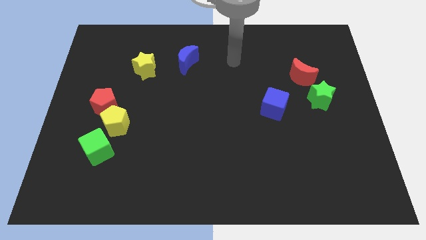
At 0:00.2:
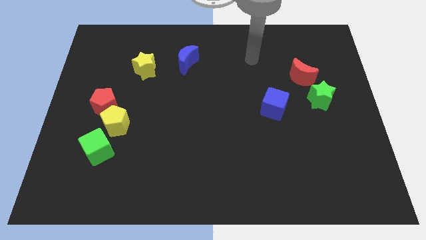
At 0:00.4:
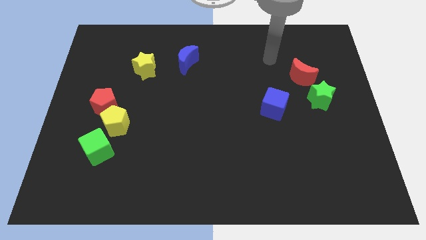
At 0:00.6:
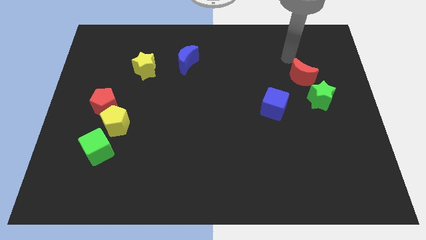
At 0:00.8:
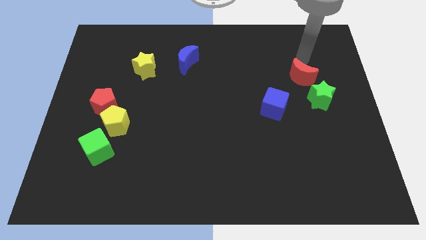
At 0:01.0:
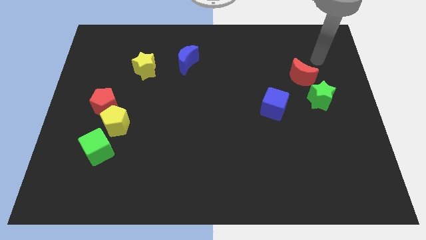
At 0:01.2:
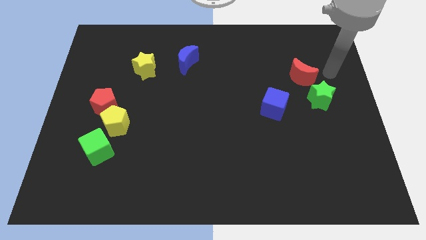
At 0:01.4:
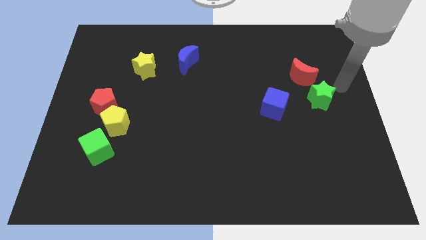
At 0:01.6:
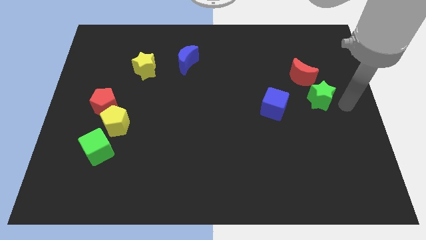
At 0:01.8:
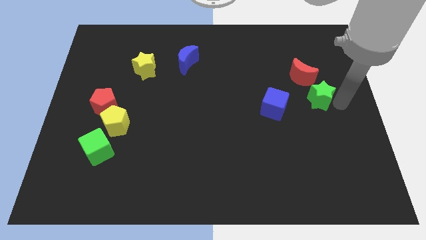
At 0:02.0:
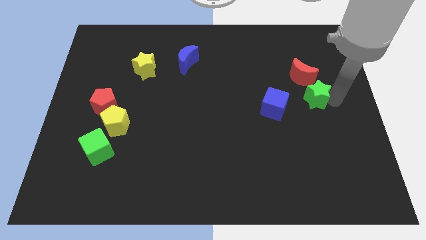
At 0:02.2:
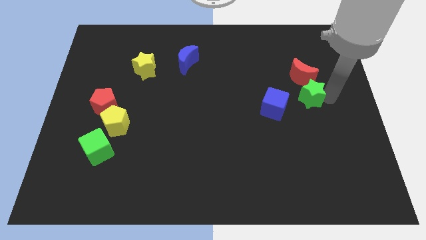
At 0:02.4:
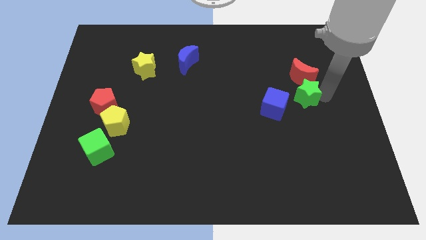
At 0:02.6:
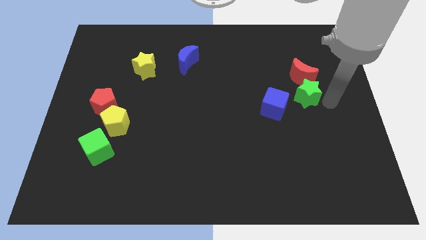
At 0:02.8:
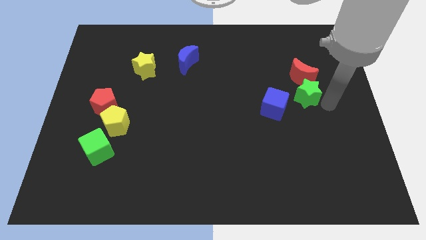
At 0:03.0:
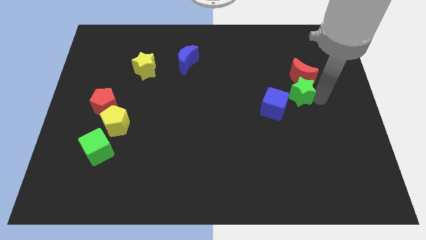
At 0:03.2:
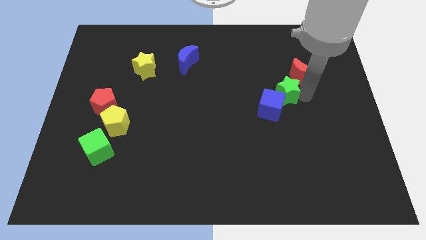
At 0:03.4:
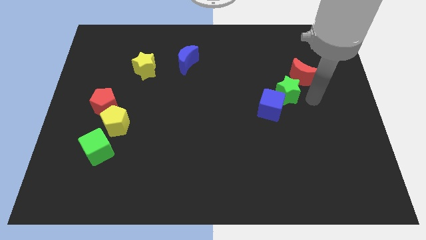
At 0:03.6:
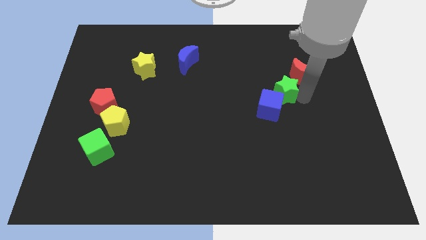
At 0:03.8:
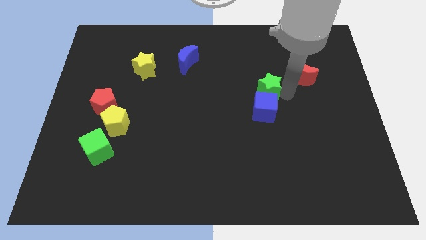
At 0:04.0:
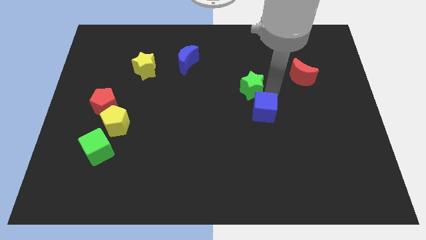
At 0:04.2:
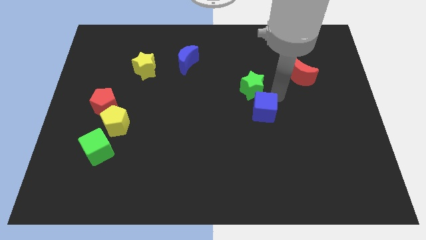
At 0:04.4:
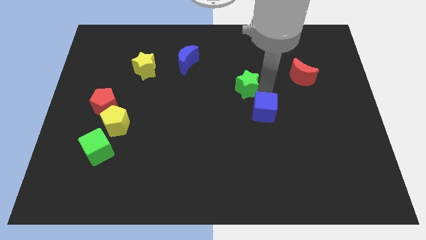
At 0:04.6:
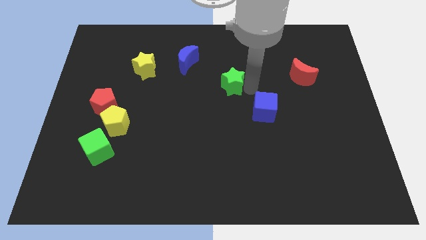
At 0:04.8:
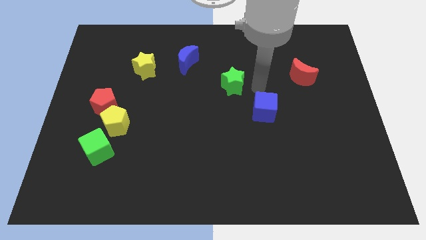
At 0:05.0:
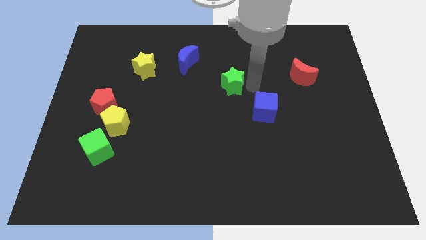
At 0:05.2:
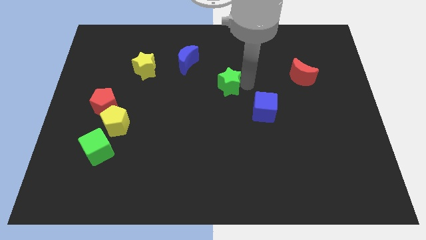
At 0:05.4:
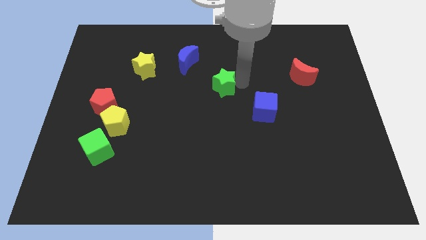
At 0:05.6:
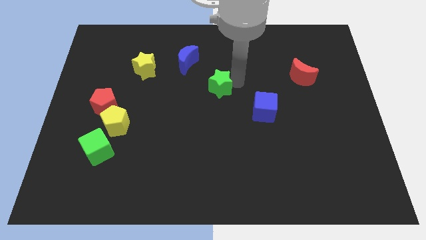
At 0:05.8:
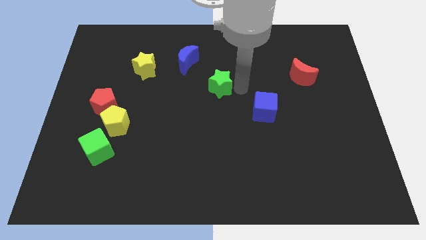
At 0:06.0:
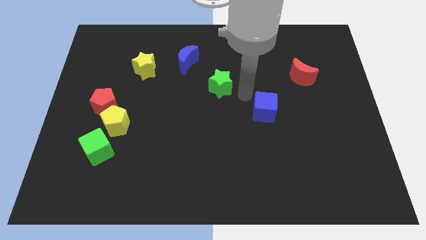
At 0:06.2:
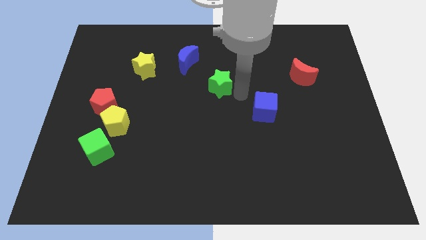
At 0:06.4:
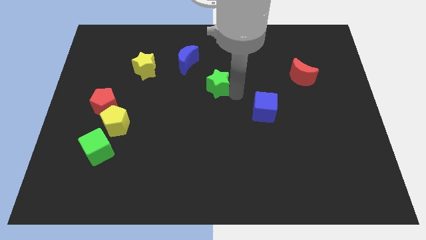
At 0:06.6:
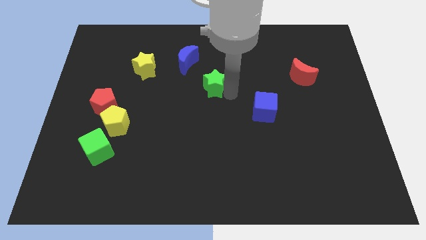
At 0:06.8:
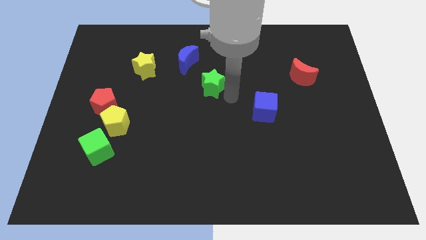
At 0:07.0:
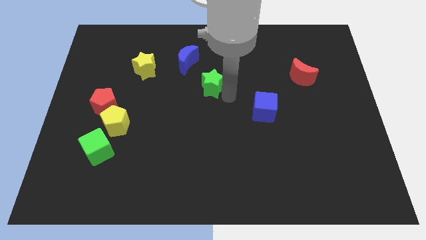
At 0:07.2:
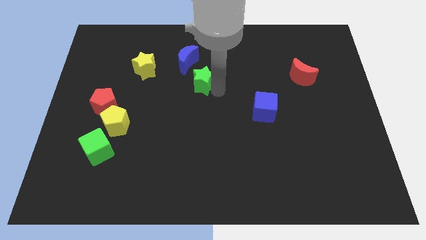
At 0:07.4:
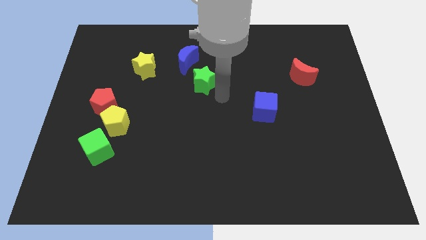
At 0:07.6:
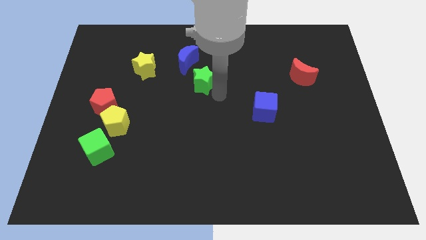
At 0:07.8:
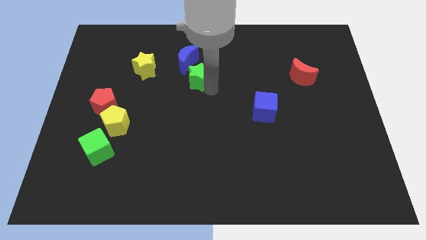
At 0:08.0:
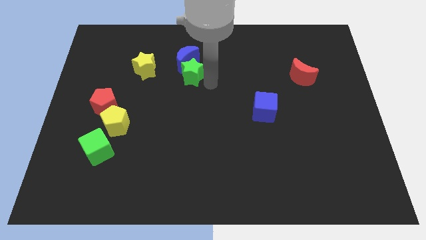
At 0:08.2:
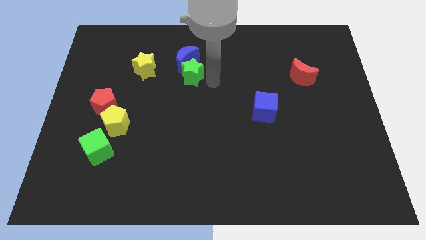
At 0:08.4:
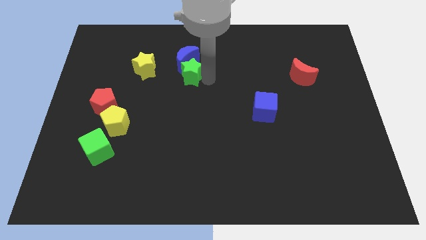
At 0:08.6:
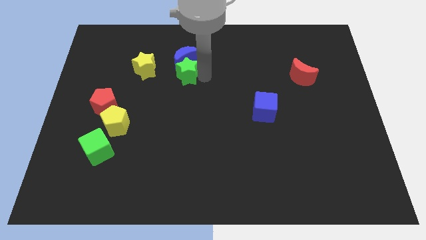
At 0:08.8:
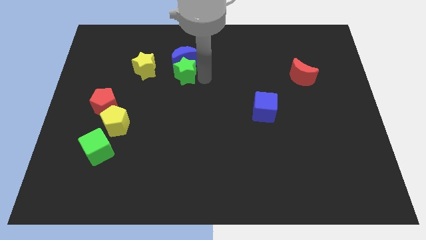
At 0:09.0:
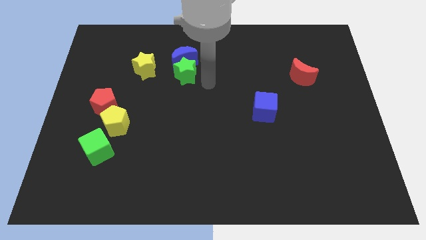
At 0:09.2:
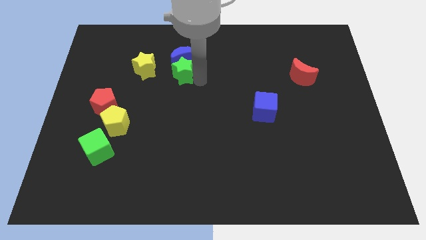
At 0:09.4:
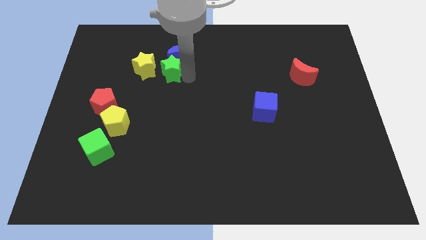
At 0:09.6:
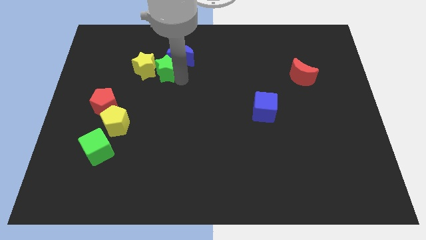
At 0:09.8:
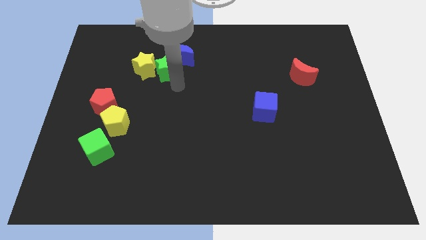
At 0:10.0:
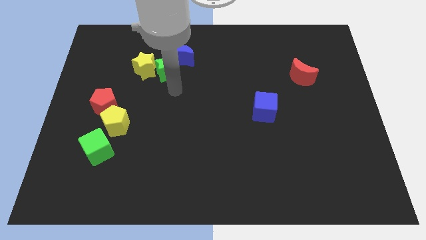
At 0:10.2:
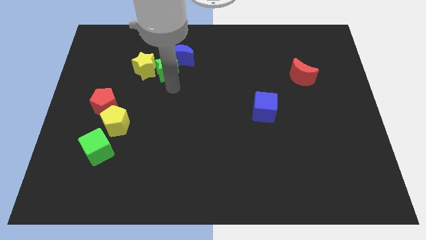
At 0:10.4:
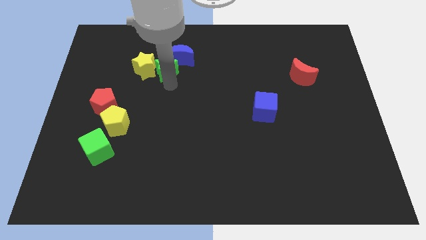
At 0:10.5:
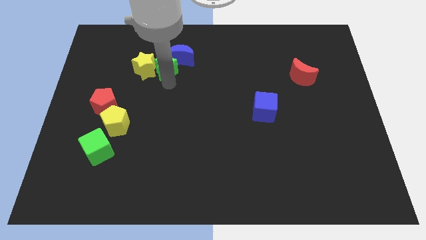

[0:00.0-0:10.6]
put the green star to the left of the blue moon

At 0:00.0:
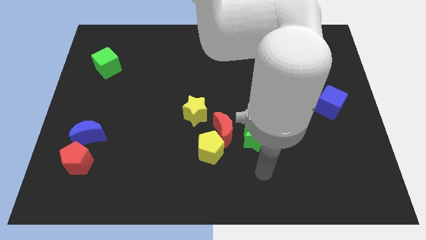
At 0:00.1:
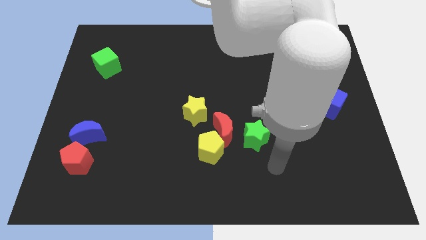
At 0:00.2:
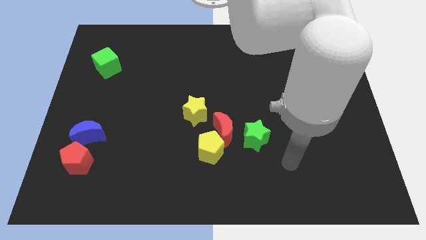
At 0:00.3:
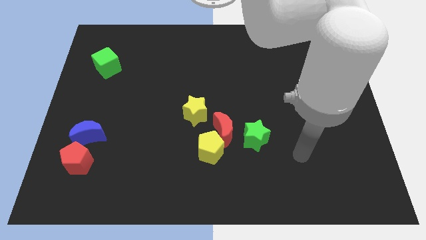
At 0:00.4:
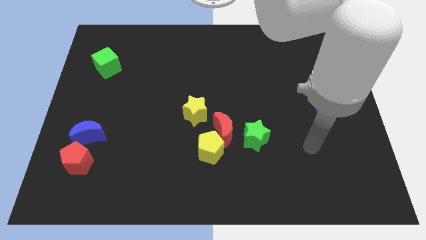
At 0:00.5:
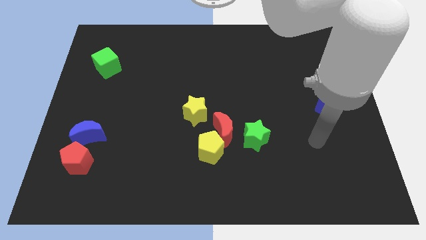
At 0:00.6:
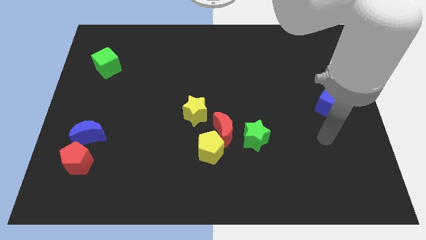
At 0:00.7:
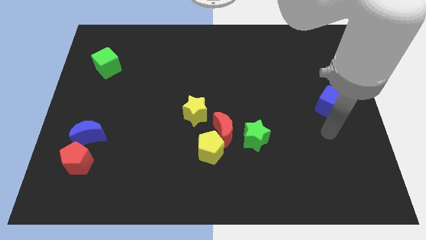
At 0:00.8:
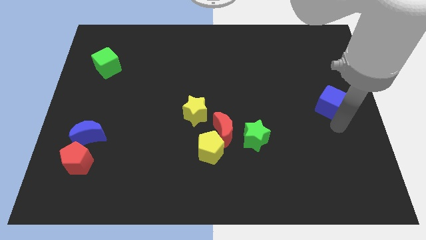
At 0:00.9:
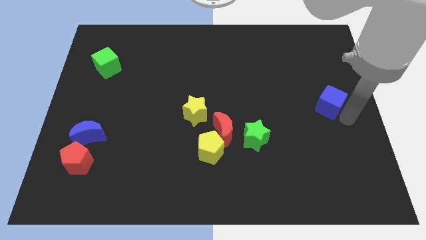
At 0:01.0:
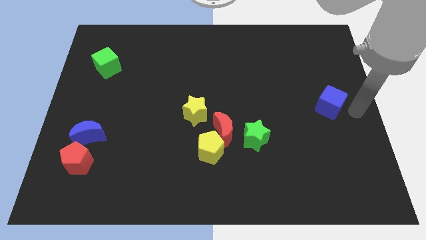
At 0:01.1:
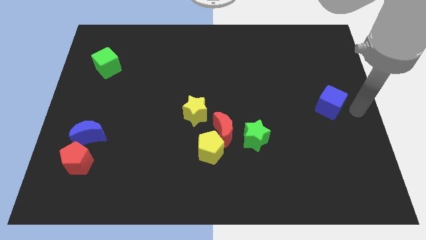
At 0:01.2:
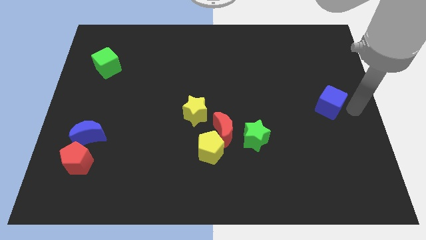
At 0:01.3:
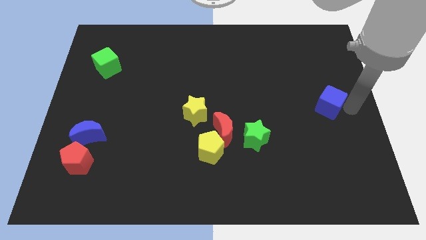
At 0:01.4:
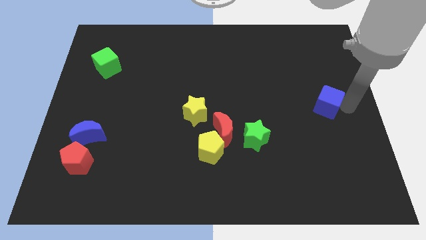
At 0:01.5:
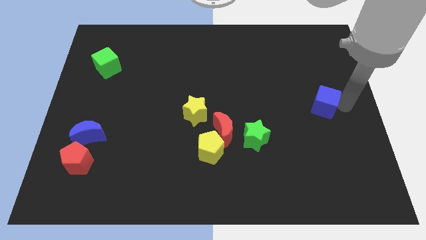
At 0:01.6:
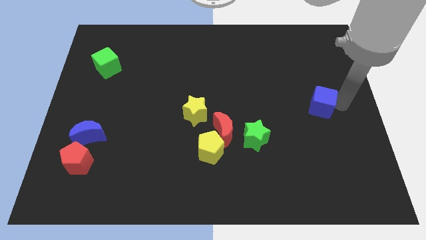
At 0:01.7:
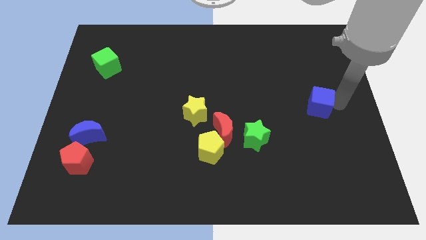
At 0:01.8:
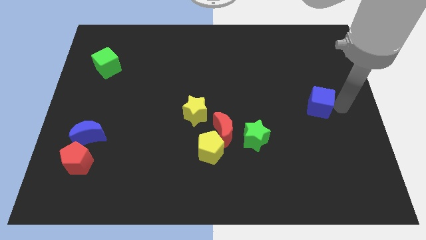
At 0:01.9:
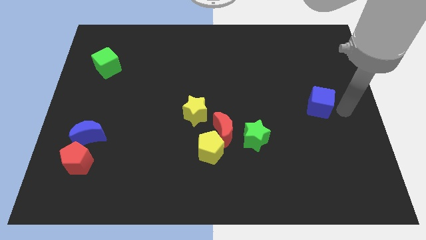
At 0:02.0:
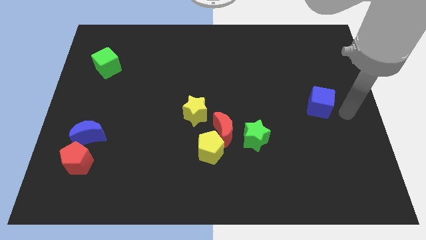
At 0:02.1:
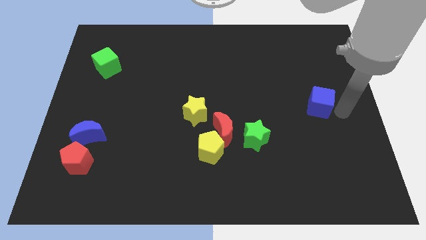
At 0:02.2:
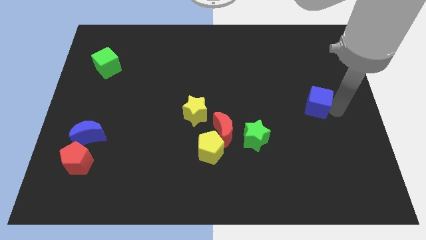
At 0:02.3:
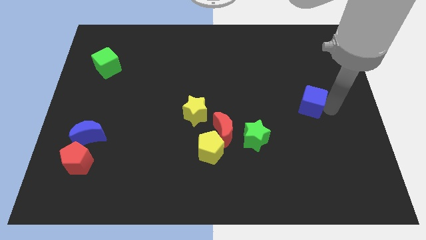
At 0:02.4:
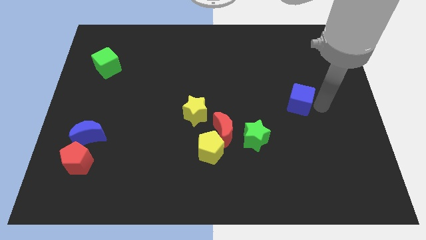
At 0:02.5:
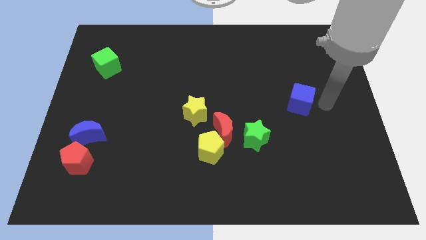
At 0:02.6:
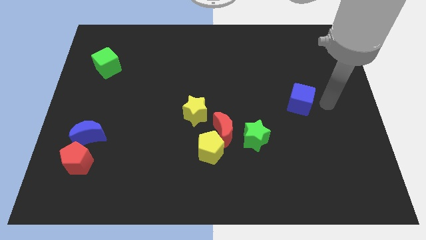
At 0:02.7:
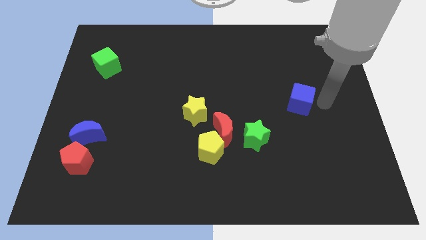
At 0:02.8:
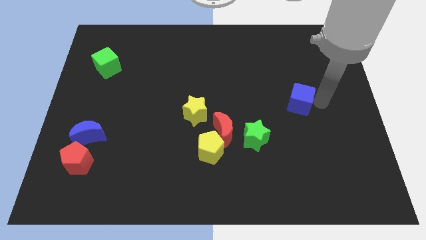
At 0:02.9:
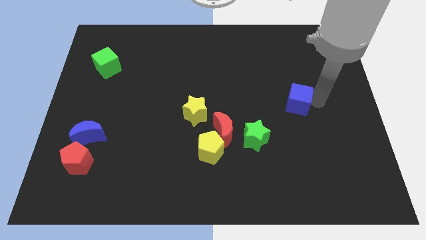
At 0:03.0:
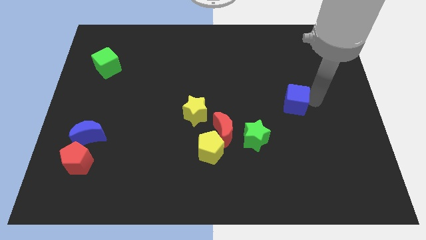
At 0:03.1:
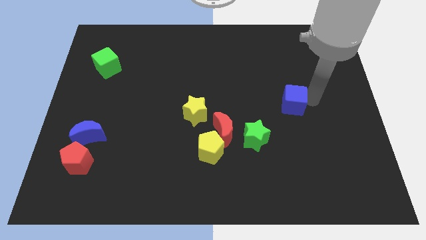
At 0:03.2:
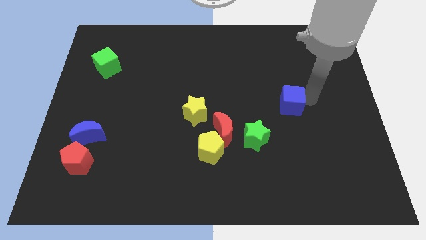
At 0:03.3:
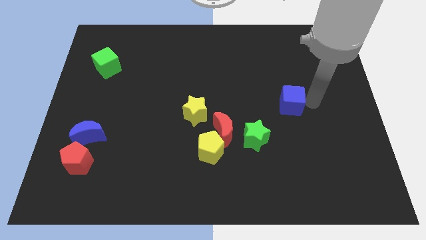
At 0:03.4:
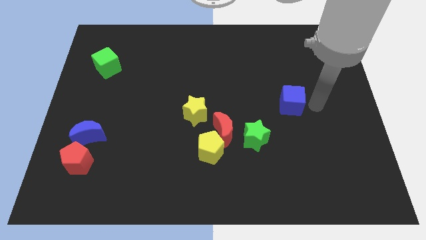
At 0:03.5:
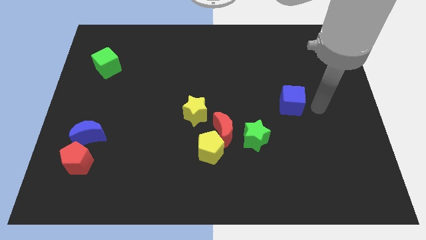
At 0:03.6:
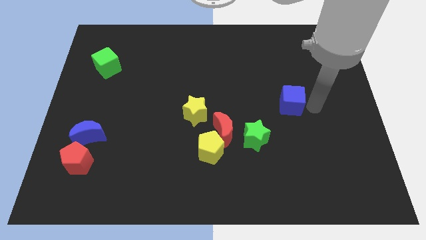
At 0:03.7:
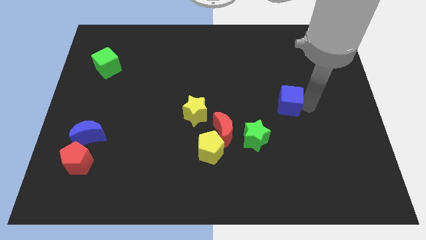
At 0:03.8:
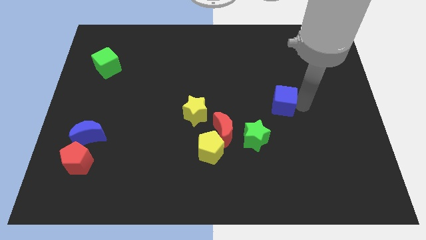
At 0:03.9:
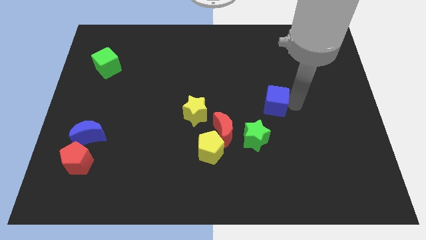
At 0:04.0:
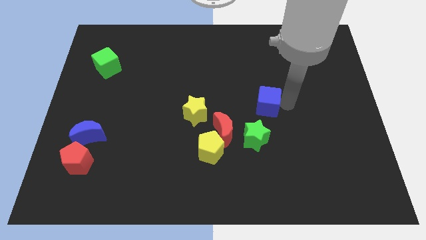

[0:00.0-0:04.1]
move the blue cube to the top of the green star
